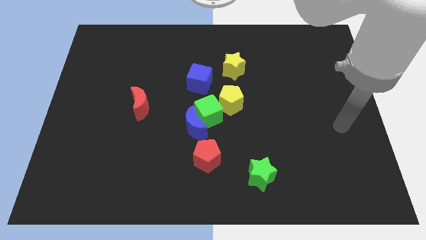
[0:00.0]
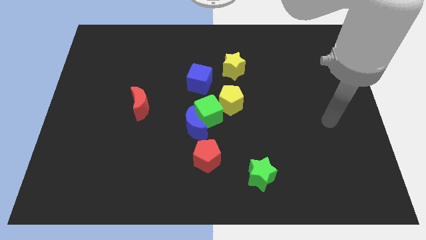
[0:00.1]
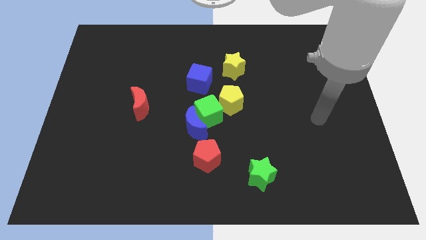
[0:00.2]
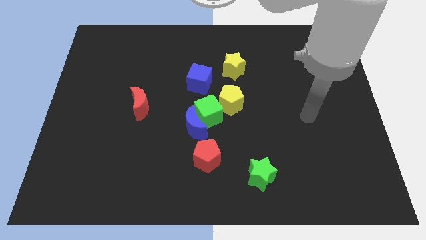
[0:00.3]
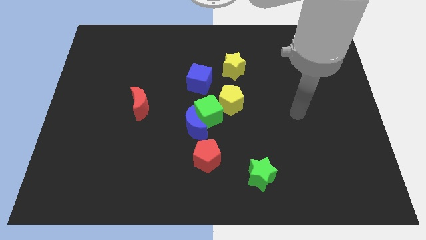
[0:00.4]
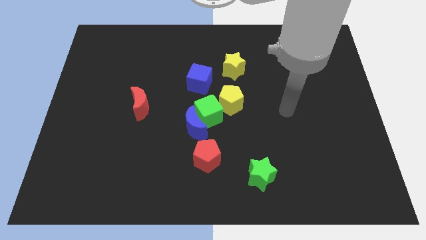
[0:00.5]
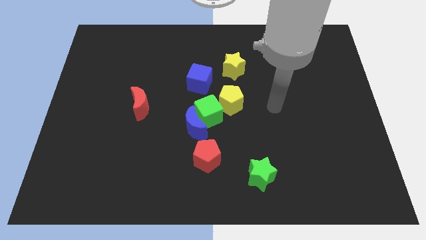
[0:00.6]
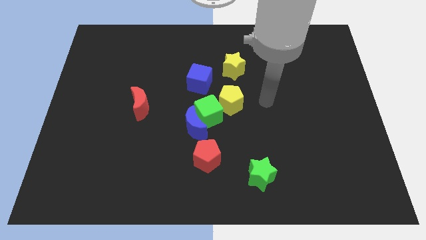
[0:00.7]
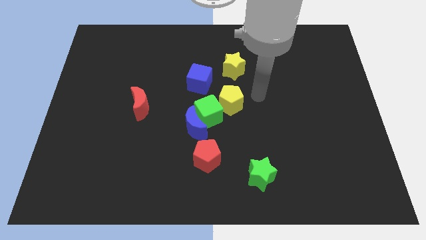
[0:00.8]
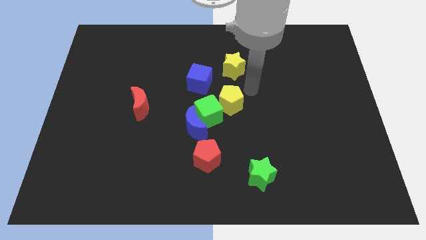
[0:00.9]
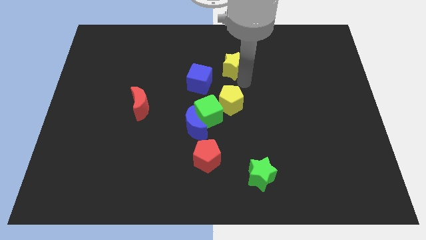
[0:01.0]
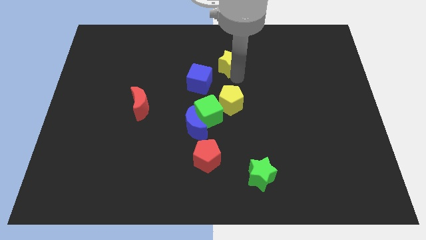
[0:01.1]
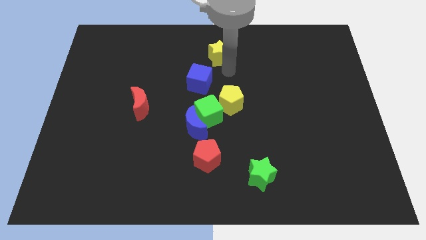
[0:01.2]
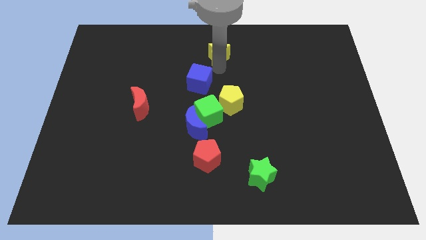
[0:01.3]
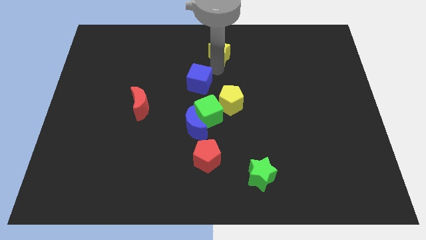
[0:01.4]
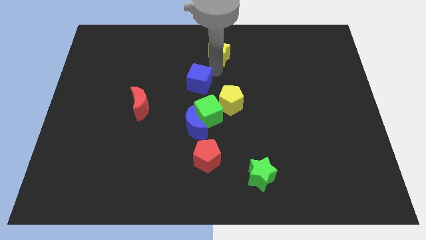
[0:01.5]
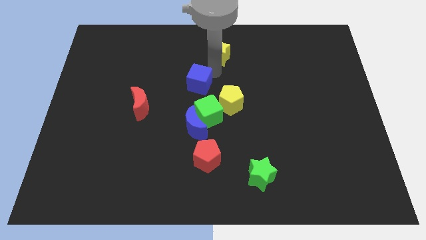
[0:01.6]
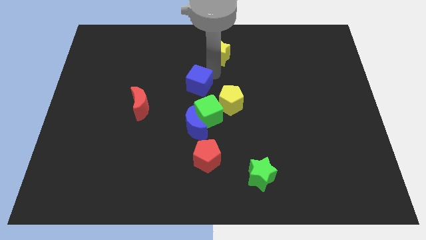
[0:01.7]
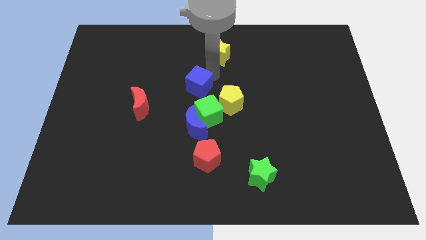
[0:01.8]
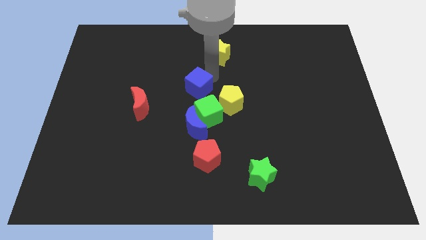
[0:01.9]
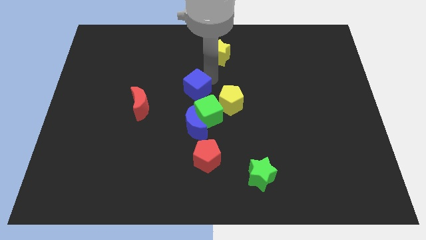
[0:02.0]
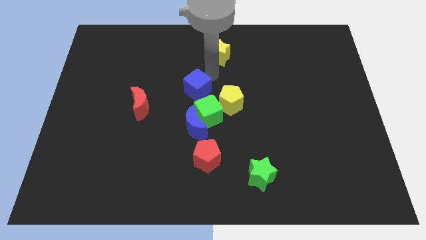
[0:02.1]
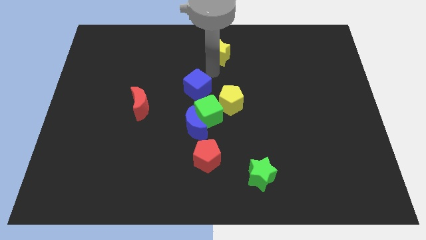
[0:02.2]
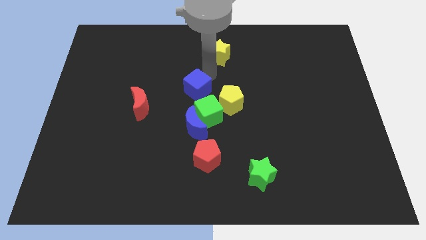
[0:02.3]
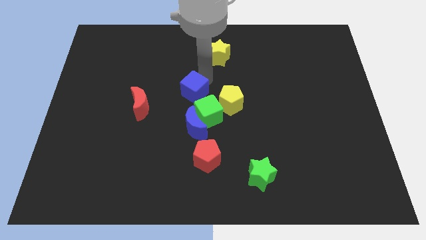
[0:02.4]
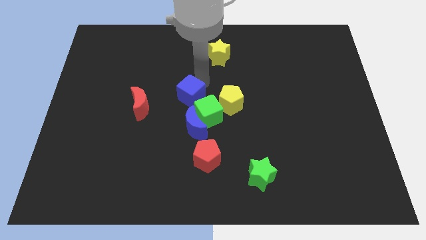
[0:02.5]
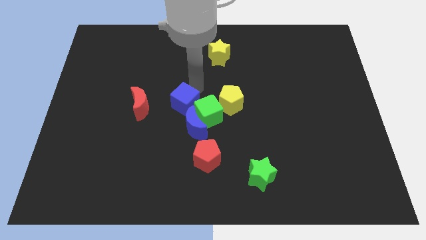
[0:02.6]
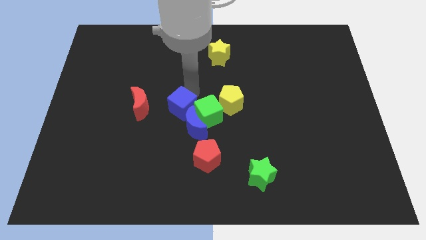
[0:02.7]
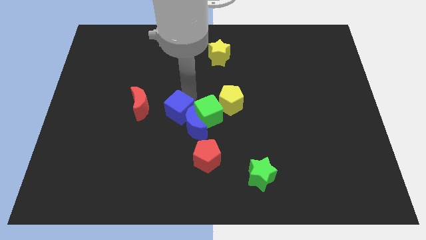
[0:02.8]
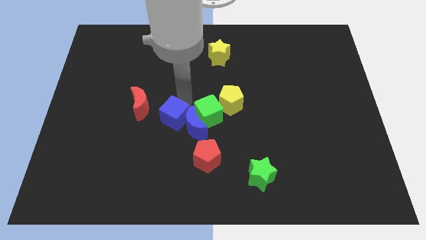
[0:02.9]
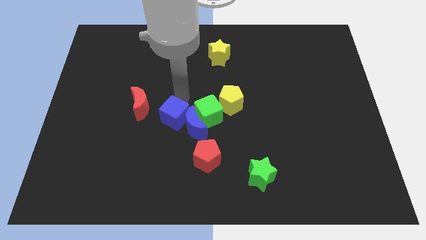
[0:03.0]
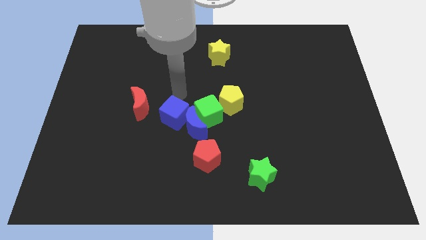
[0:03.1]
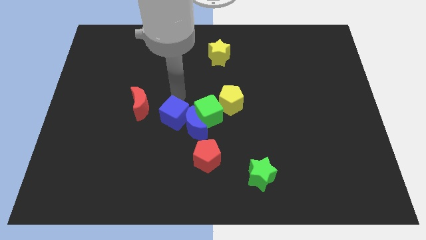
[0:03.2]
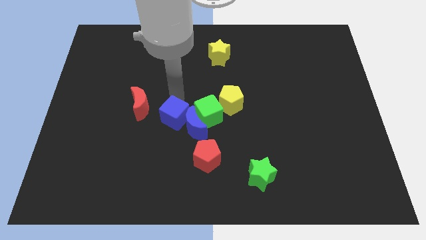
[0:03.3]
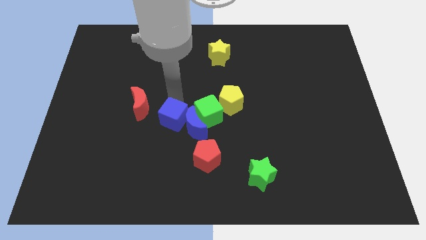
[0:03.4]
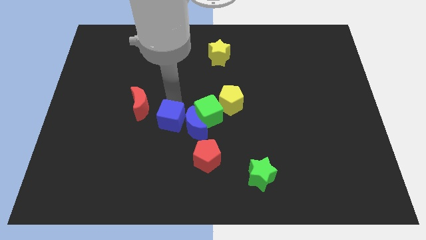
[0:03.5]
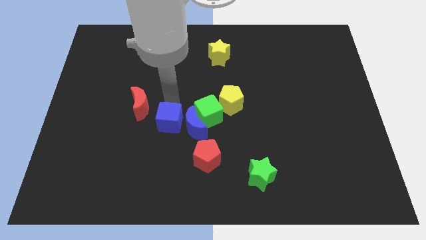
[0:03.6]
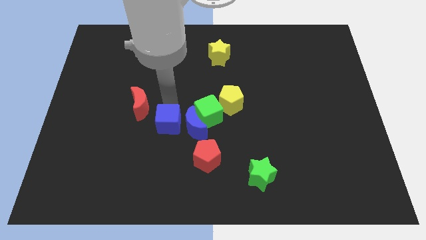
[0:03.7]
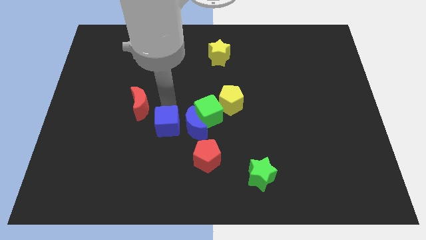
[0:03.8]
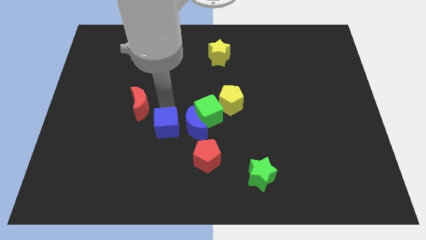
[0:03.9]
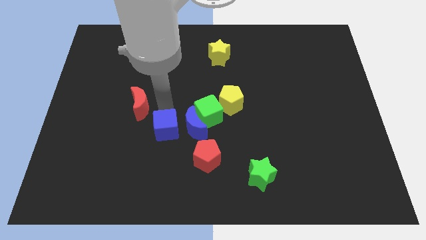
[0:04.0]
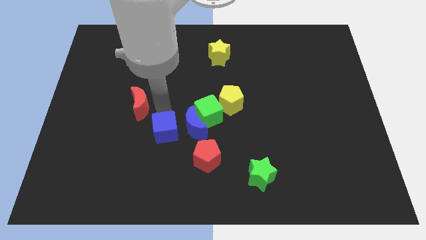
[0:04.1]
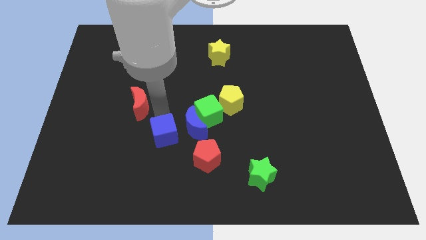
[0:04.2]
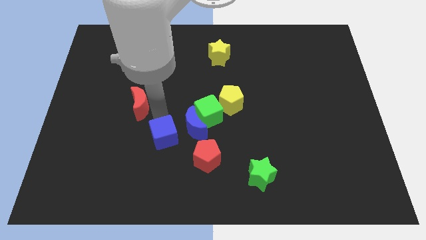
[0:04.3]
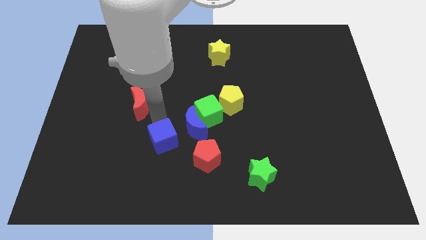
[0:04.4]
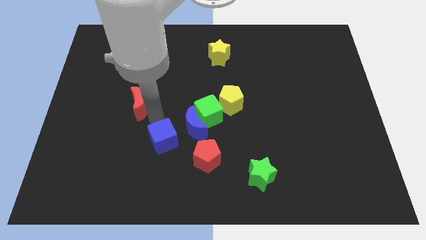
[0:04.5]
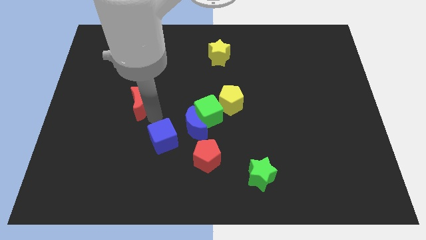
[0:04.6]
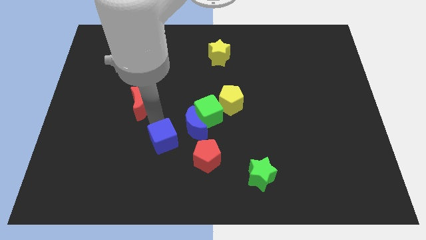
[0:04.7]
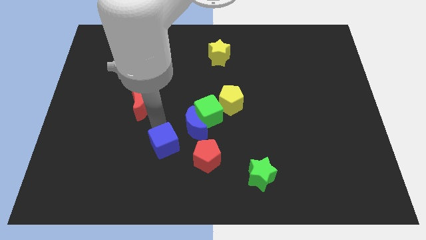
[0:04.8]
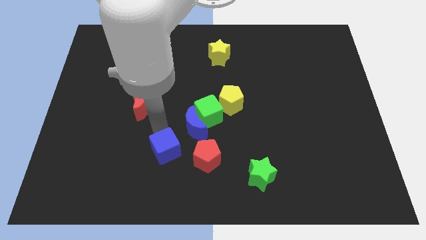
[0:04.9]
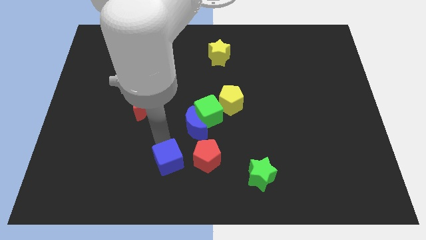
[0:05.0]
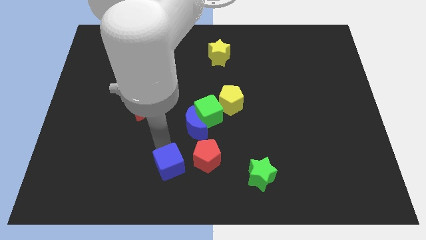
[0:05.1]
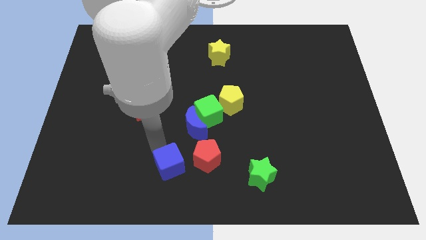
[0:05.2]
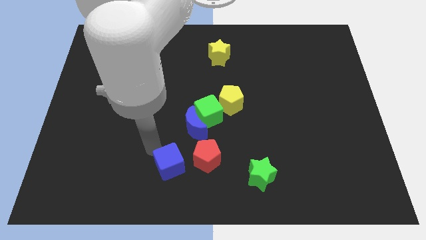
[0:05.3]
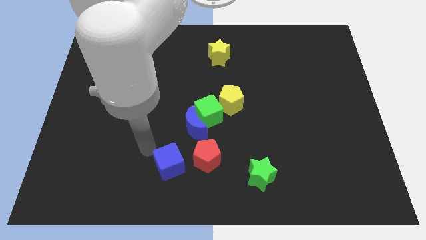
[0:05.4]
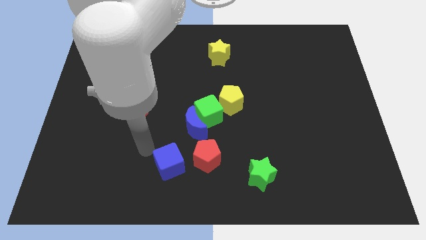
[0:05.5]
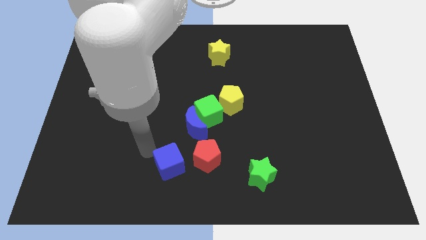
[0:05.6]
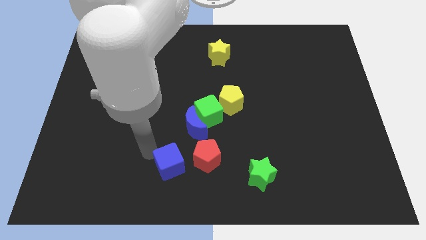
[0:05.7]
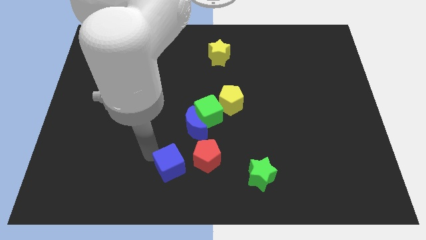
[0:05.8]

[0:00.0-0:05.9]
slide the blue cube to the bottom side

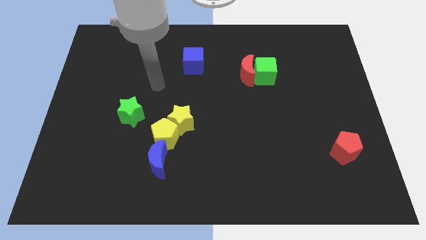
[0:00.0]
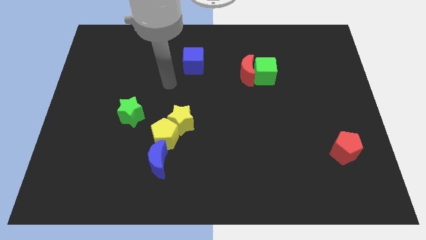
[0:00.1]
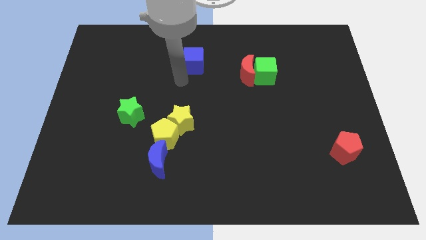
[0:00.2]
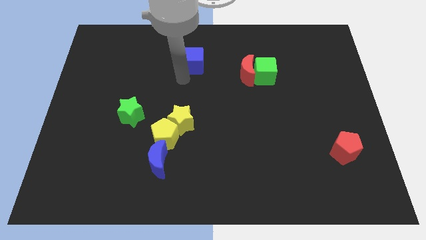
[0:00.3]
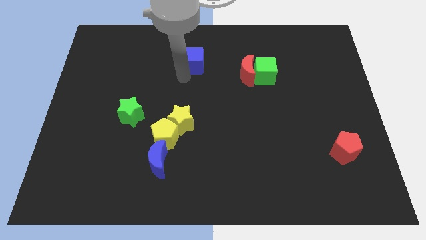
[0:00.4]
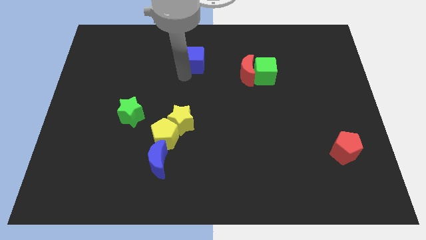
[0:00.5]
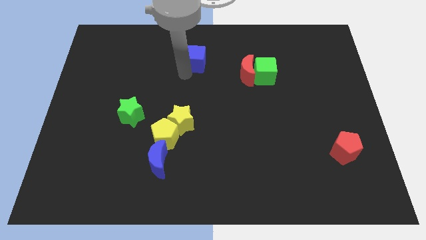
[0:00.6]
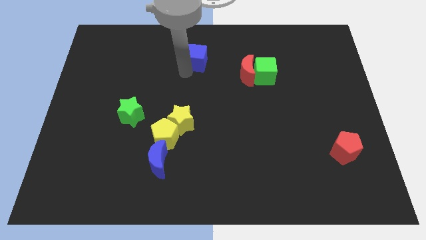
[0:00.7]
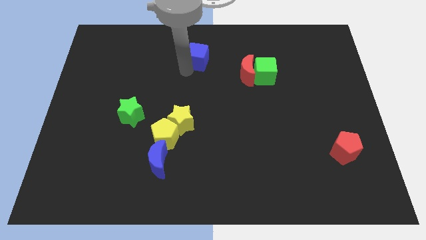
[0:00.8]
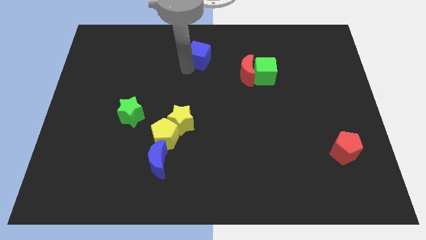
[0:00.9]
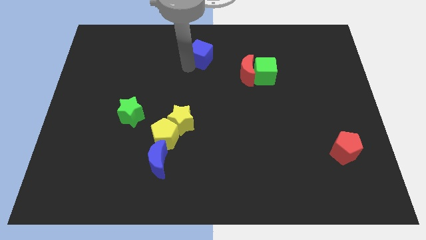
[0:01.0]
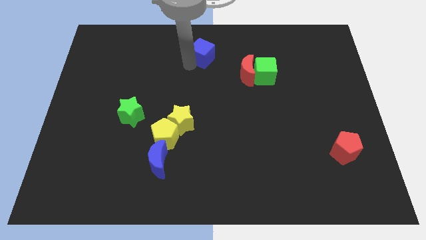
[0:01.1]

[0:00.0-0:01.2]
move the blue cube to the towards your base
